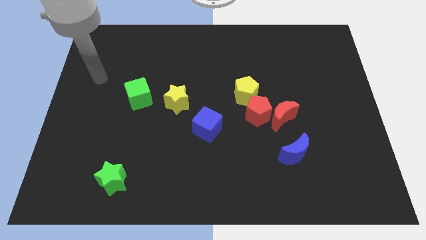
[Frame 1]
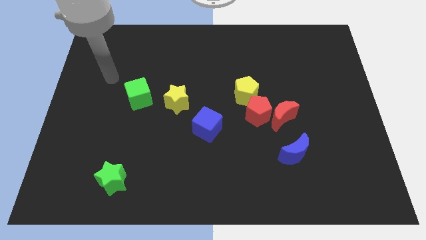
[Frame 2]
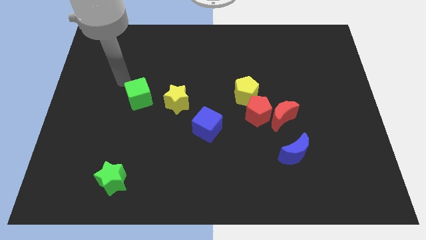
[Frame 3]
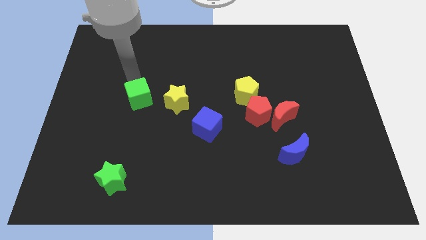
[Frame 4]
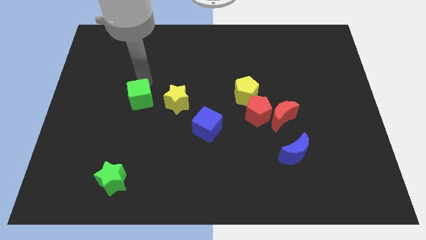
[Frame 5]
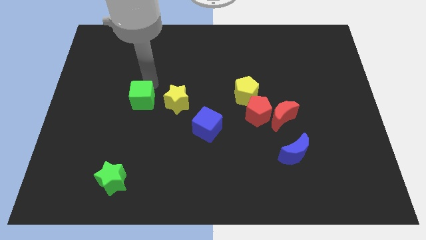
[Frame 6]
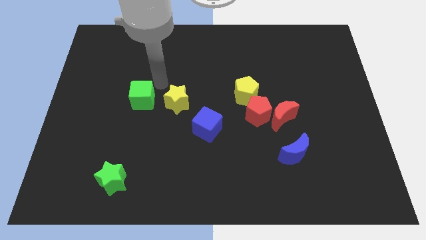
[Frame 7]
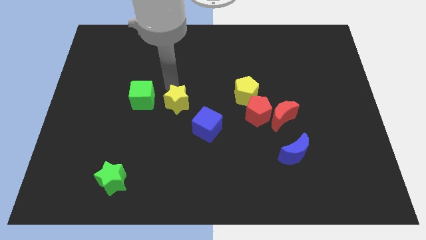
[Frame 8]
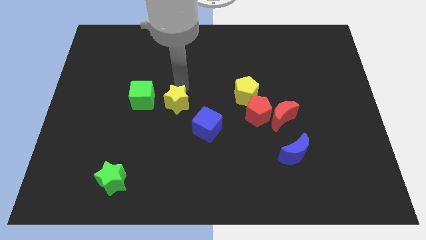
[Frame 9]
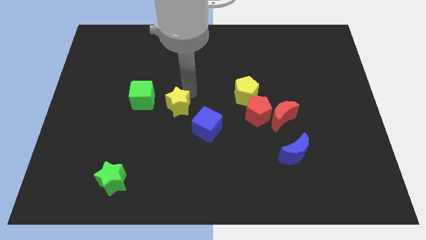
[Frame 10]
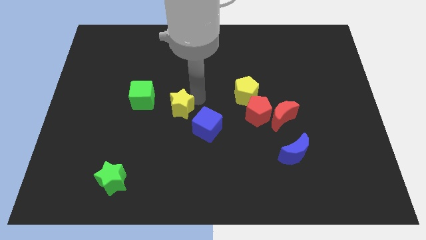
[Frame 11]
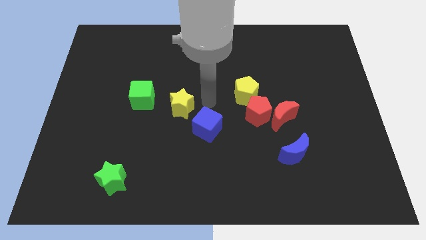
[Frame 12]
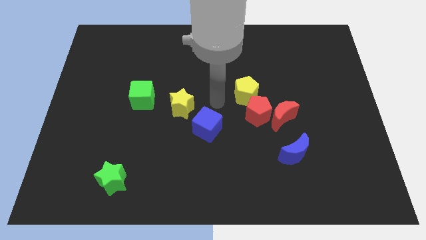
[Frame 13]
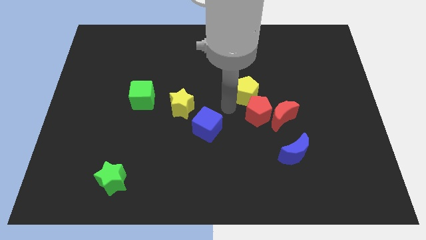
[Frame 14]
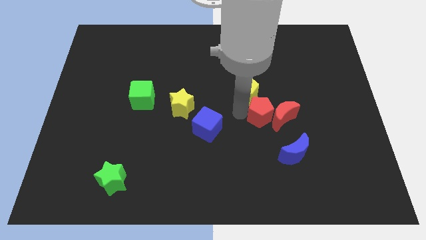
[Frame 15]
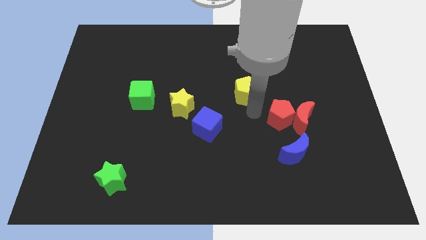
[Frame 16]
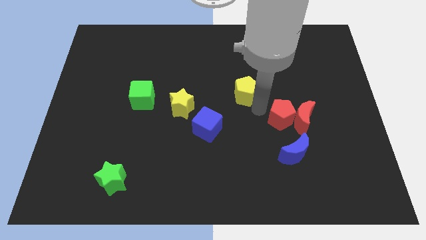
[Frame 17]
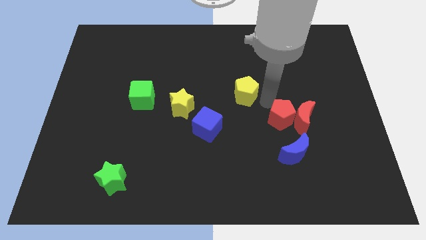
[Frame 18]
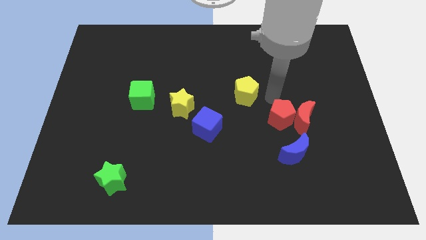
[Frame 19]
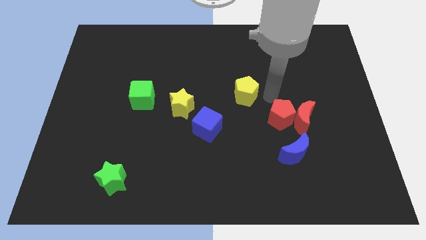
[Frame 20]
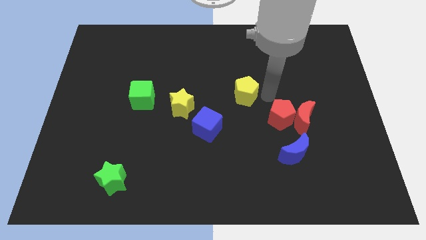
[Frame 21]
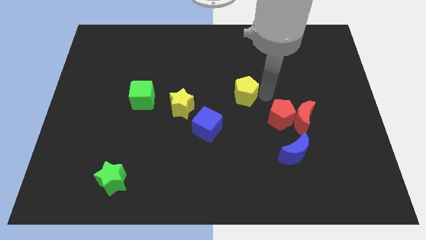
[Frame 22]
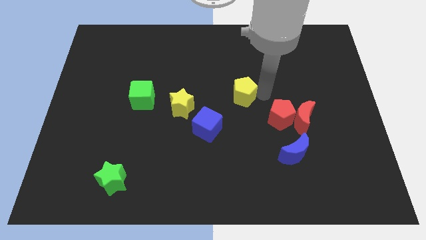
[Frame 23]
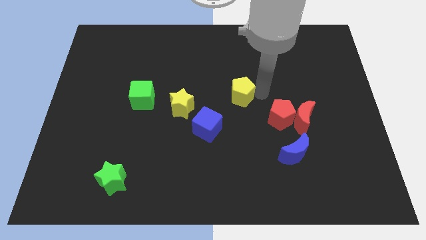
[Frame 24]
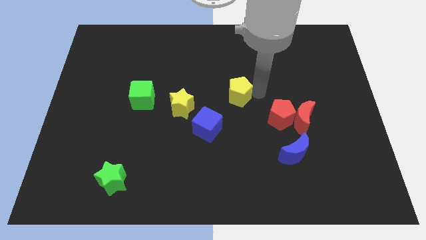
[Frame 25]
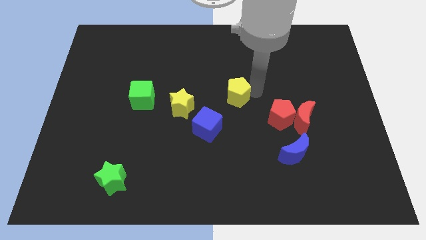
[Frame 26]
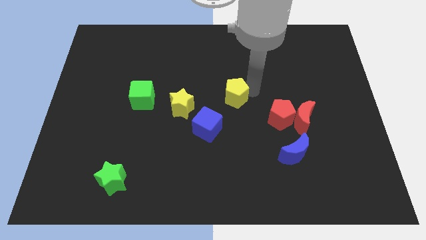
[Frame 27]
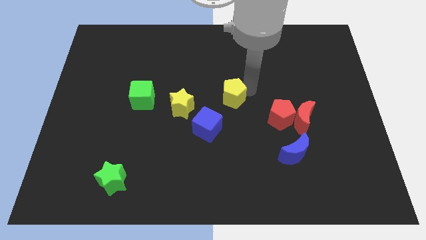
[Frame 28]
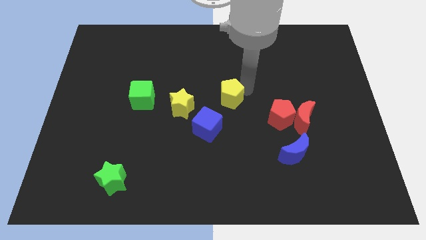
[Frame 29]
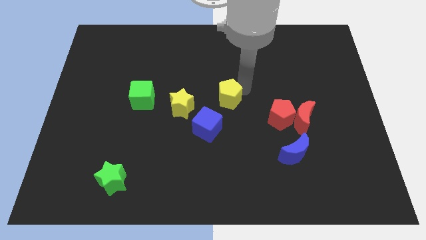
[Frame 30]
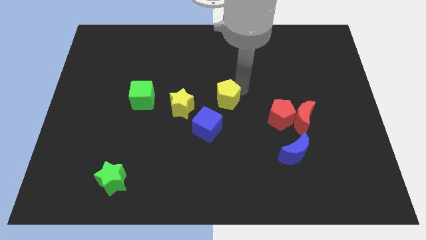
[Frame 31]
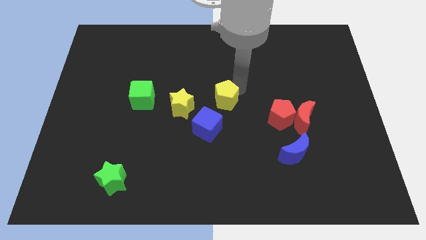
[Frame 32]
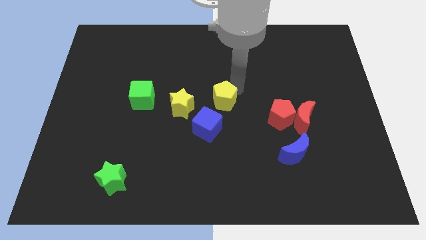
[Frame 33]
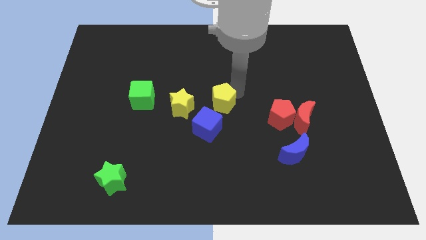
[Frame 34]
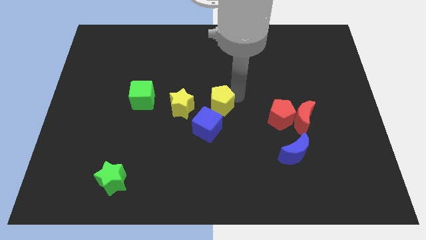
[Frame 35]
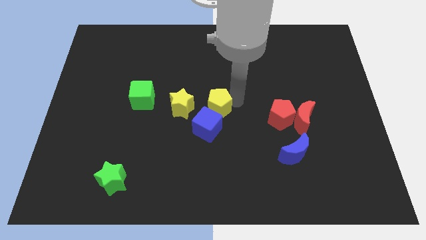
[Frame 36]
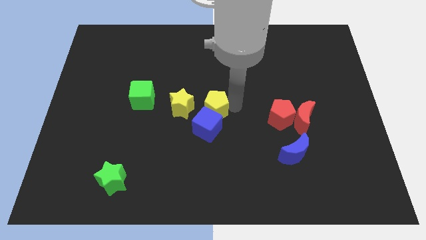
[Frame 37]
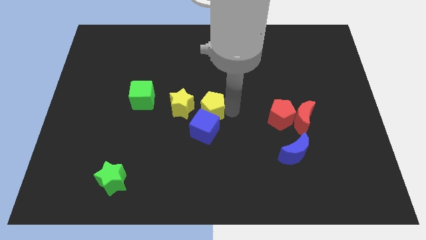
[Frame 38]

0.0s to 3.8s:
move the yellow pentagon to the left slightly

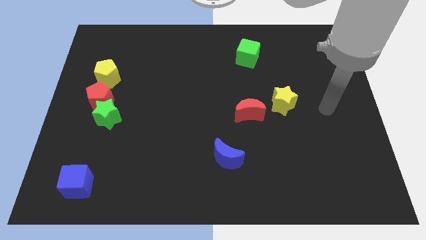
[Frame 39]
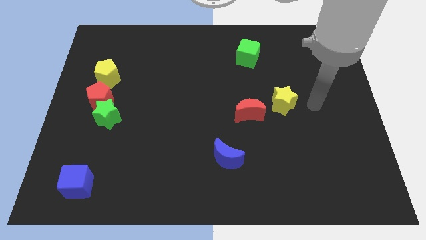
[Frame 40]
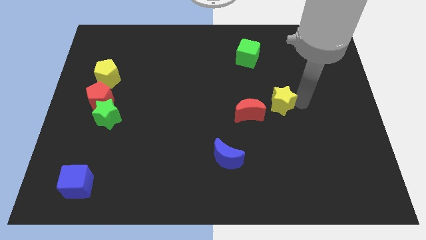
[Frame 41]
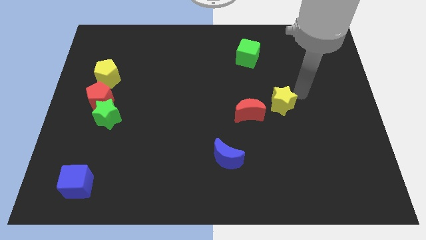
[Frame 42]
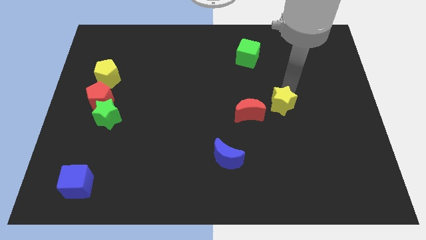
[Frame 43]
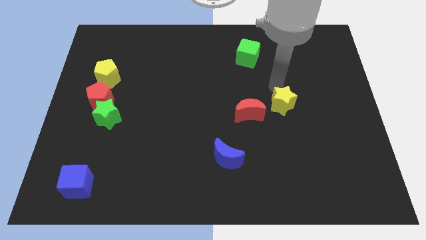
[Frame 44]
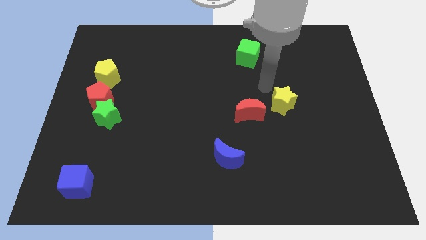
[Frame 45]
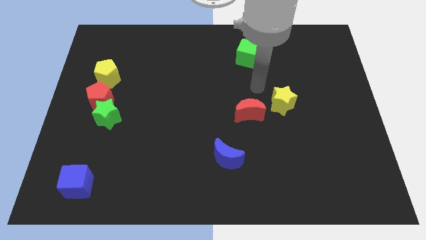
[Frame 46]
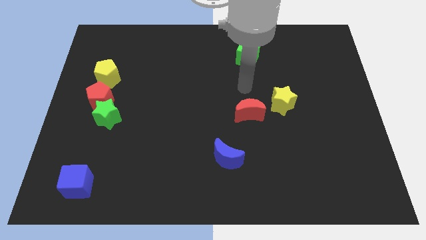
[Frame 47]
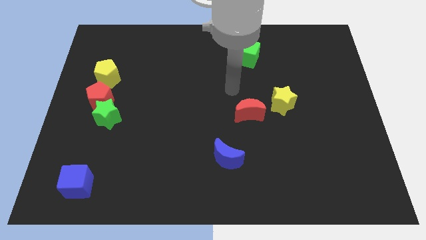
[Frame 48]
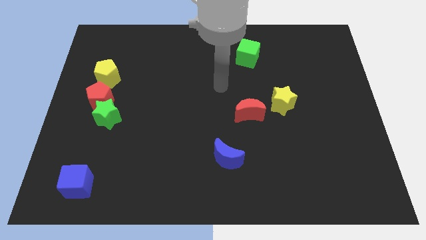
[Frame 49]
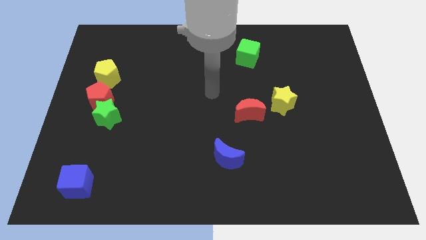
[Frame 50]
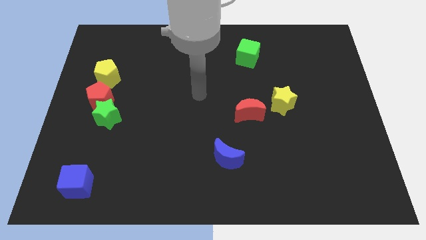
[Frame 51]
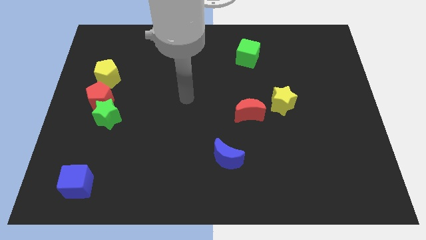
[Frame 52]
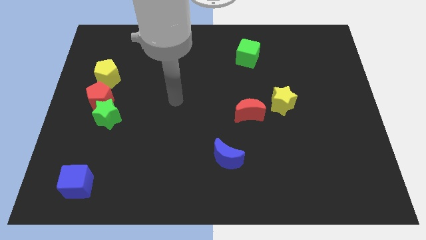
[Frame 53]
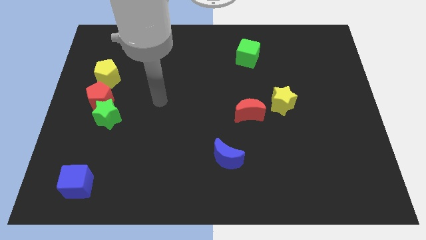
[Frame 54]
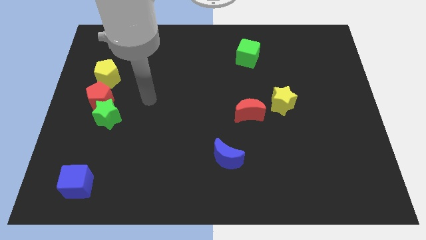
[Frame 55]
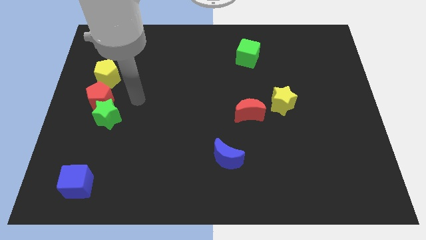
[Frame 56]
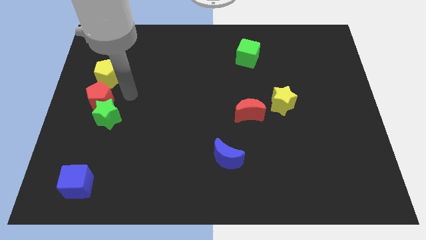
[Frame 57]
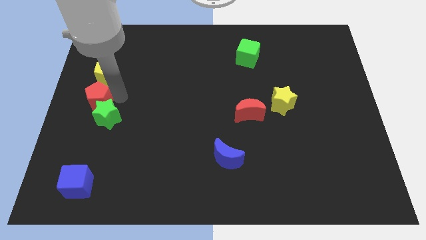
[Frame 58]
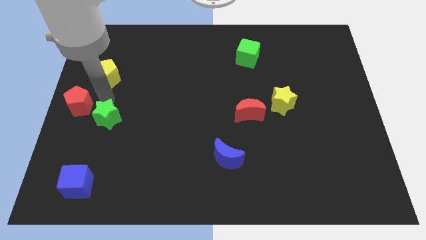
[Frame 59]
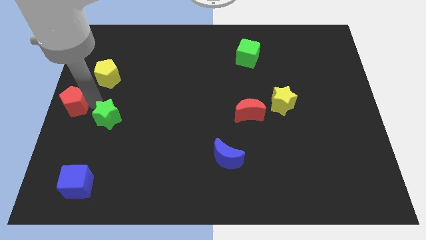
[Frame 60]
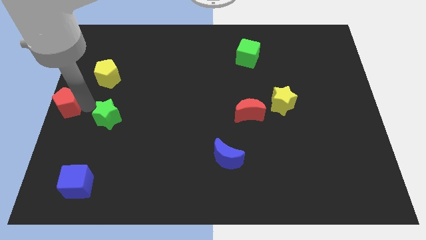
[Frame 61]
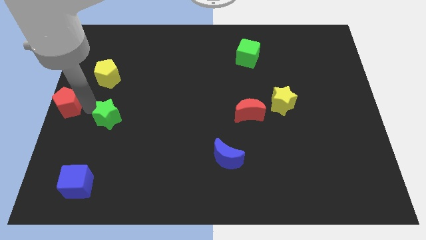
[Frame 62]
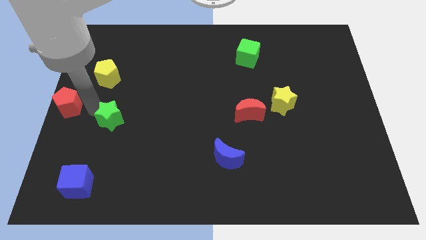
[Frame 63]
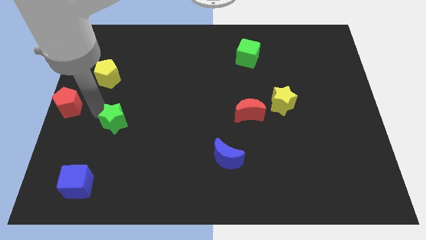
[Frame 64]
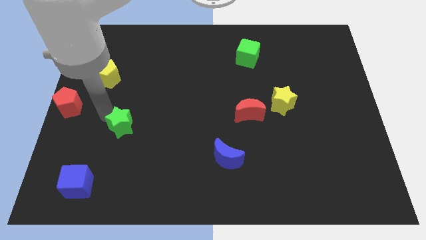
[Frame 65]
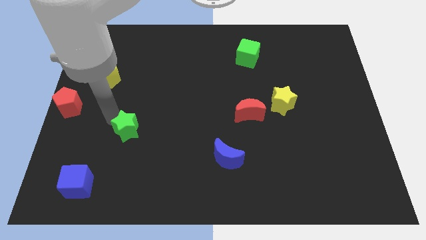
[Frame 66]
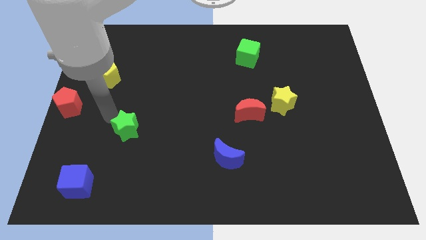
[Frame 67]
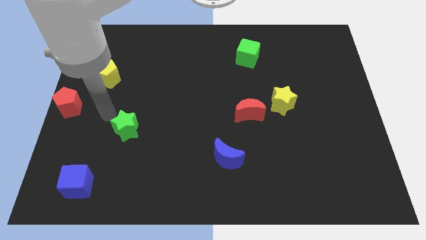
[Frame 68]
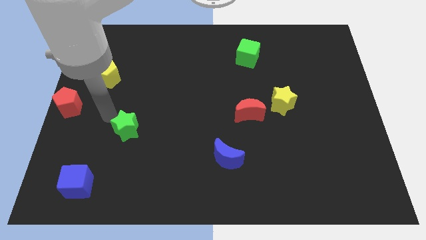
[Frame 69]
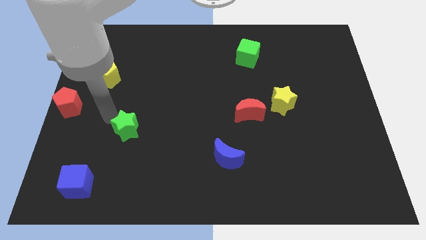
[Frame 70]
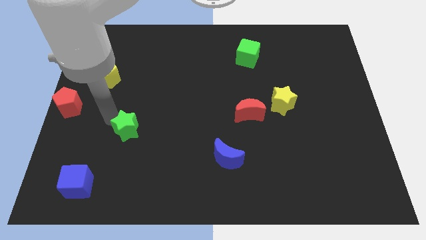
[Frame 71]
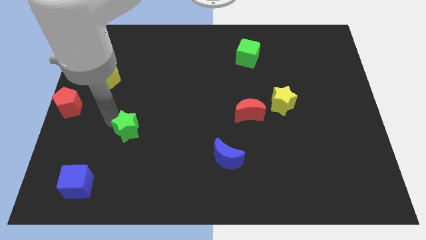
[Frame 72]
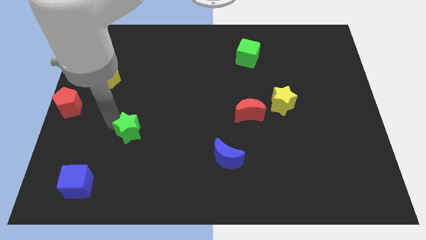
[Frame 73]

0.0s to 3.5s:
move the green star a bit downwards and to the right diagonally

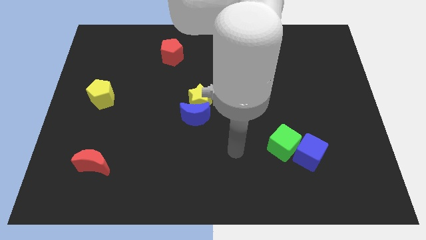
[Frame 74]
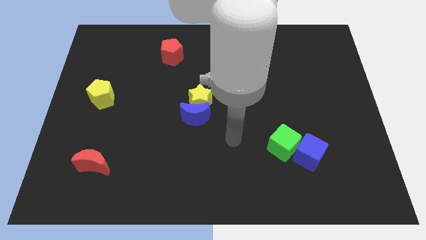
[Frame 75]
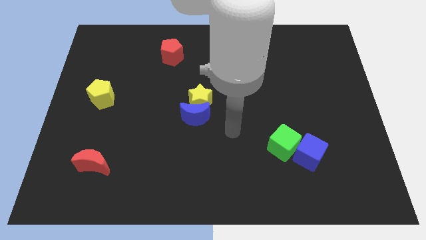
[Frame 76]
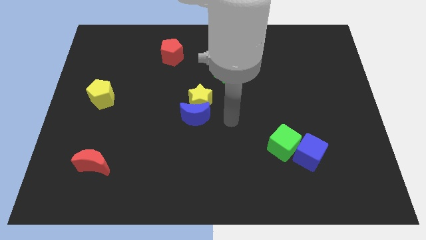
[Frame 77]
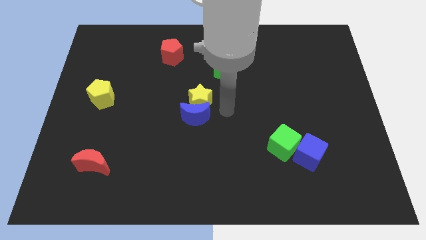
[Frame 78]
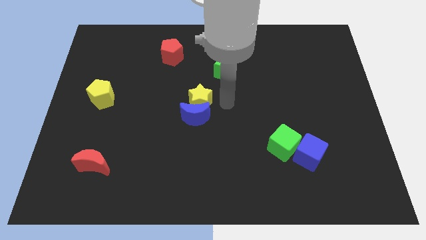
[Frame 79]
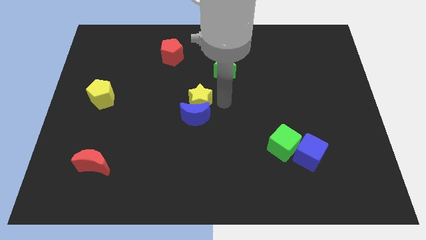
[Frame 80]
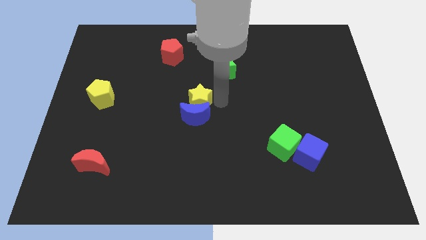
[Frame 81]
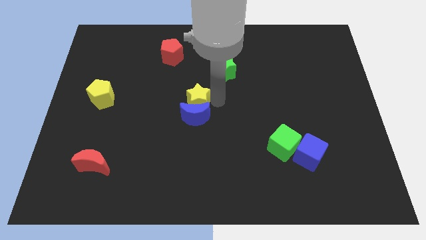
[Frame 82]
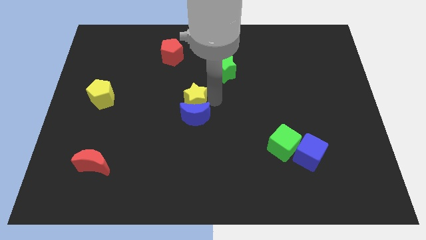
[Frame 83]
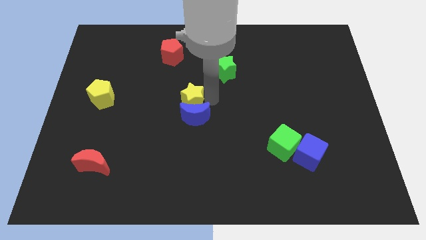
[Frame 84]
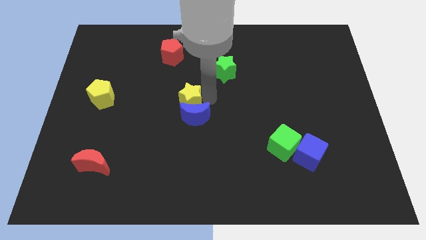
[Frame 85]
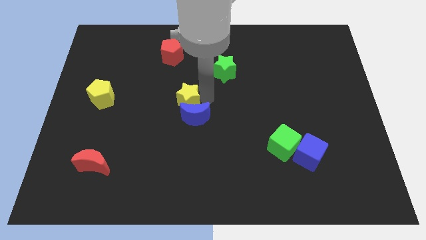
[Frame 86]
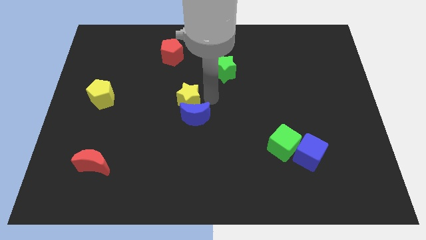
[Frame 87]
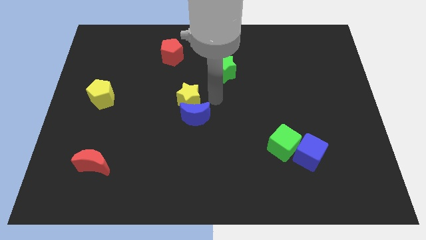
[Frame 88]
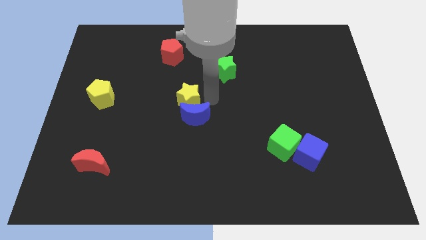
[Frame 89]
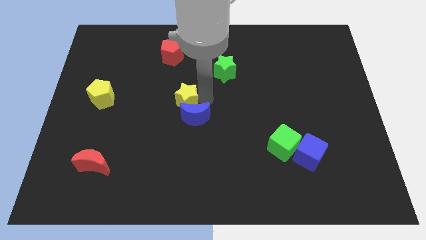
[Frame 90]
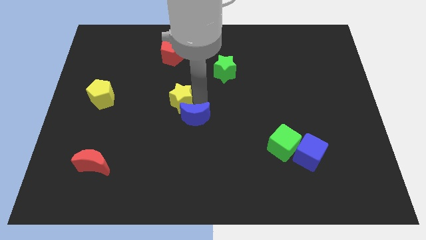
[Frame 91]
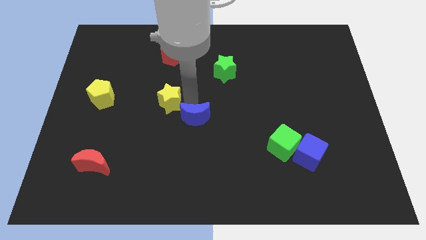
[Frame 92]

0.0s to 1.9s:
push the yellow star to the left somewhat
